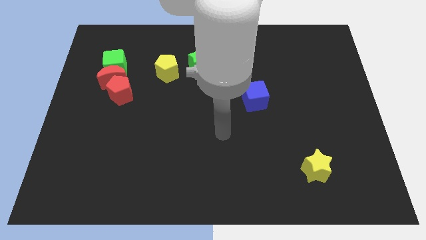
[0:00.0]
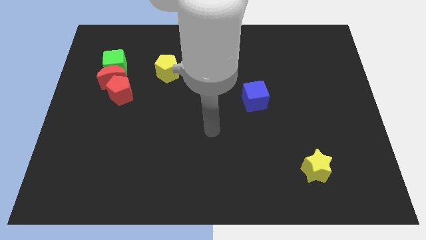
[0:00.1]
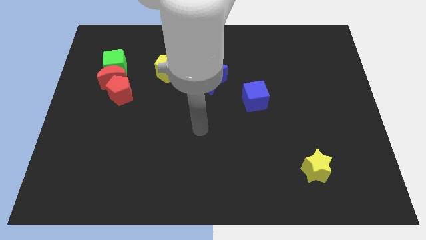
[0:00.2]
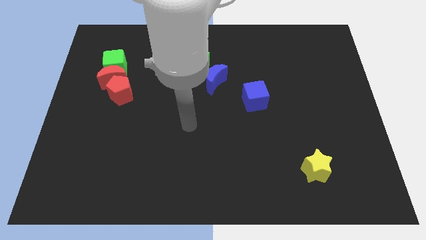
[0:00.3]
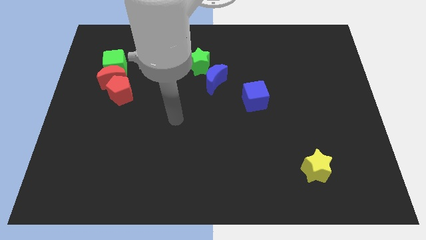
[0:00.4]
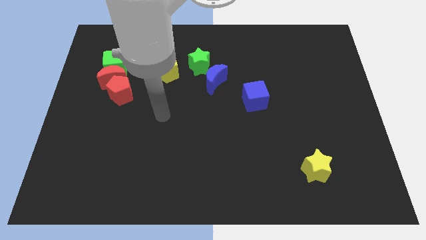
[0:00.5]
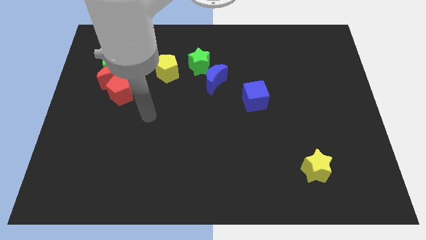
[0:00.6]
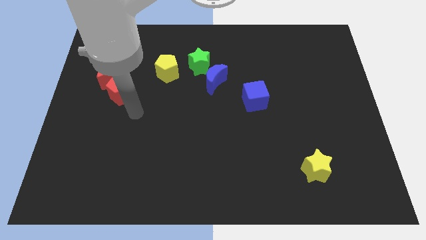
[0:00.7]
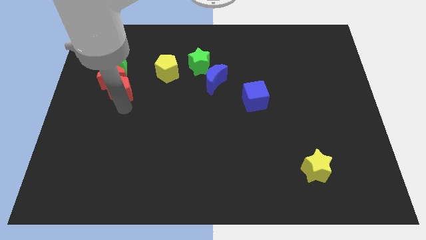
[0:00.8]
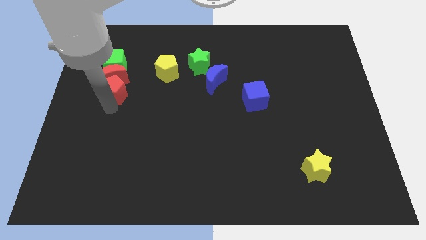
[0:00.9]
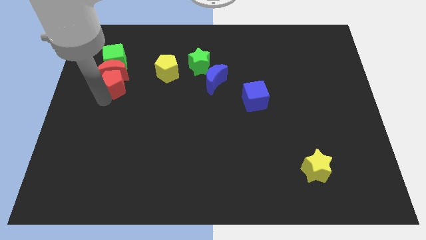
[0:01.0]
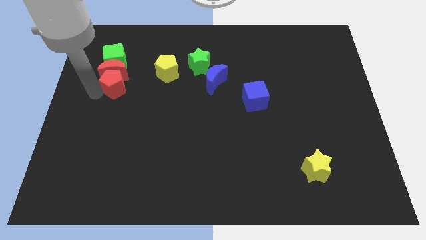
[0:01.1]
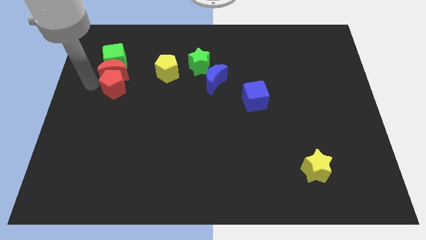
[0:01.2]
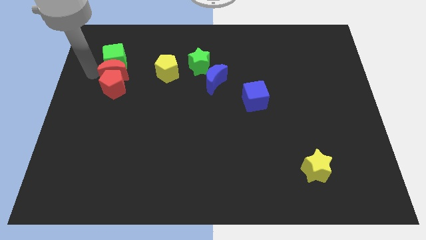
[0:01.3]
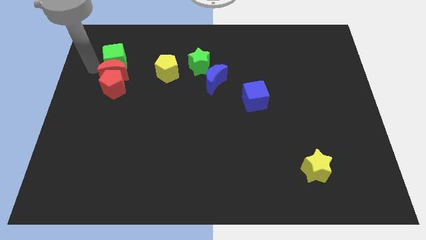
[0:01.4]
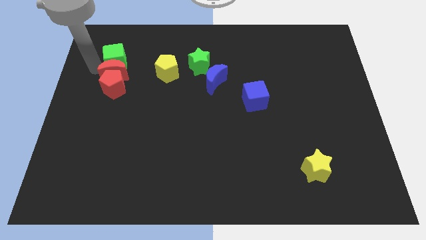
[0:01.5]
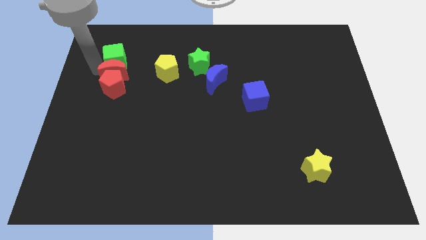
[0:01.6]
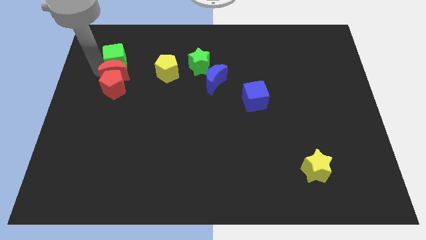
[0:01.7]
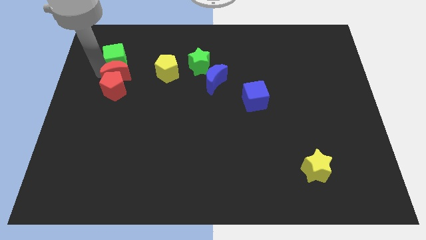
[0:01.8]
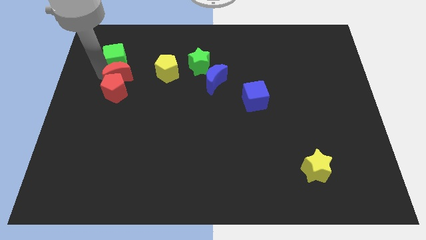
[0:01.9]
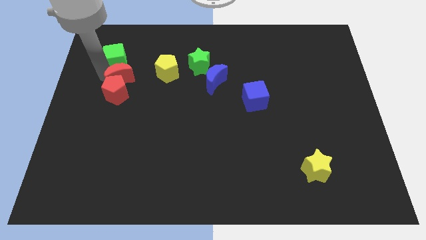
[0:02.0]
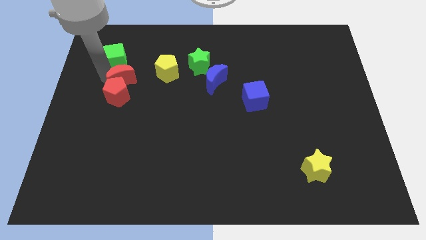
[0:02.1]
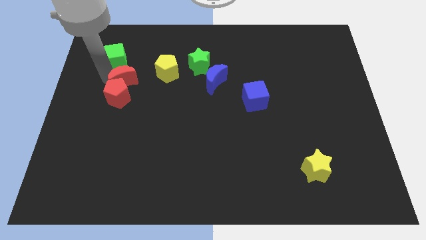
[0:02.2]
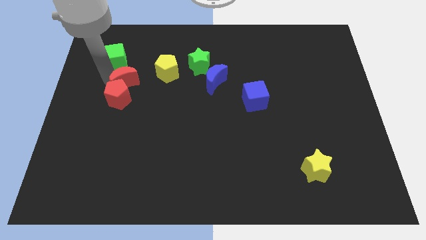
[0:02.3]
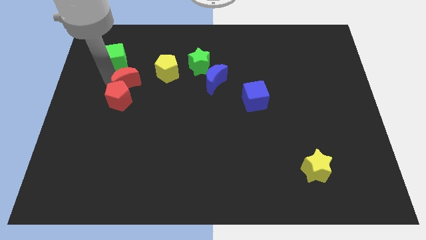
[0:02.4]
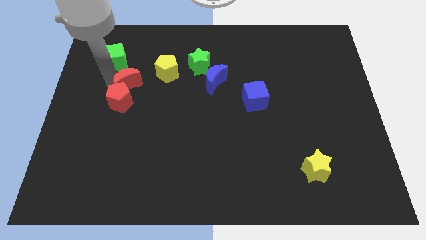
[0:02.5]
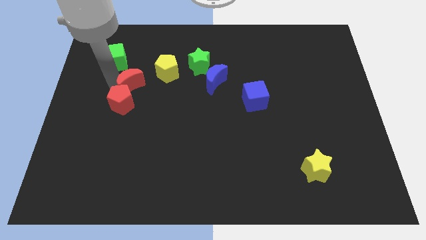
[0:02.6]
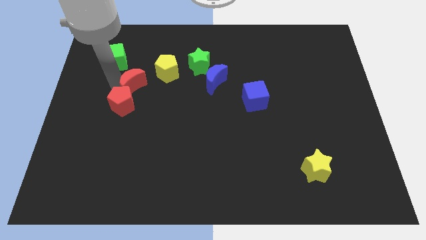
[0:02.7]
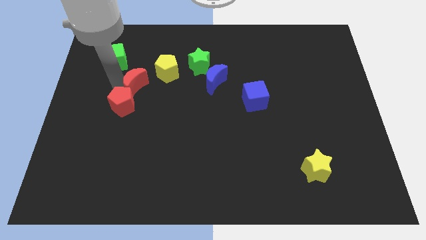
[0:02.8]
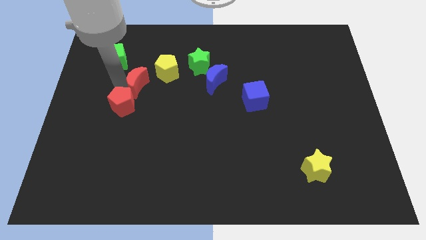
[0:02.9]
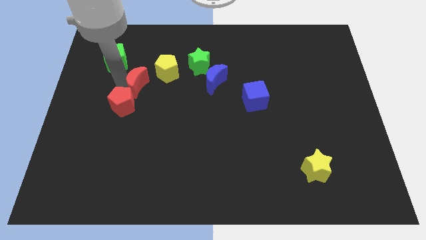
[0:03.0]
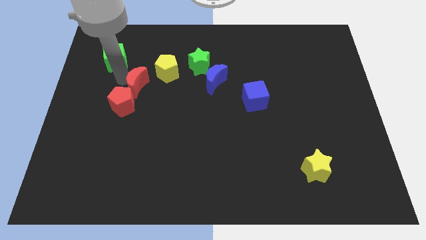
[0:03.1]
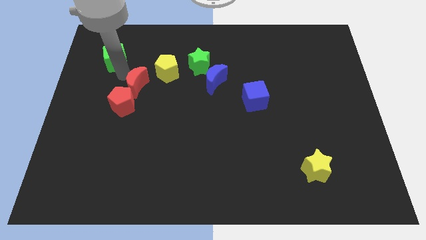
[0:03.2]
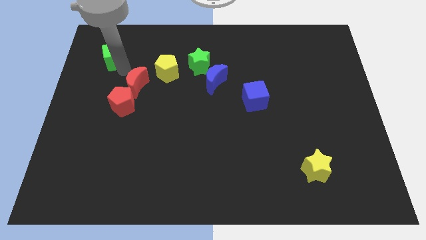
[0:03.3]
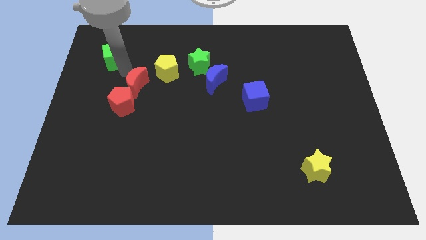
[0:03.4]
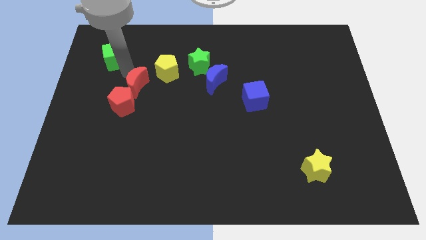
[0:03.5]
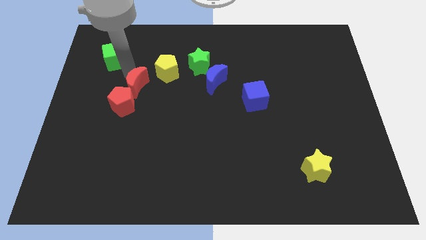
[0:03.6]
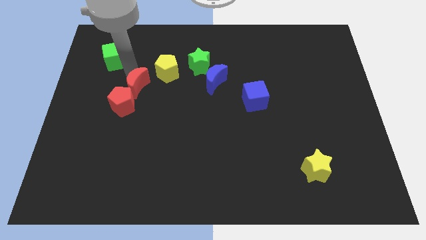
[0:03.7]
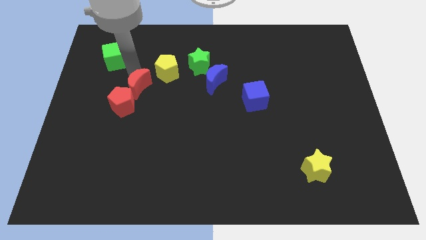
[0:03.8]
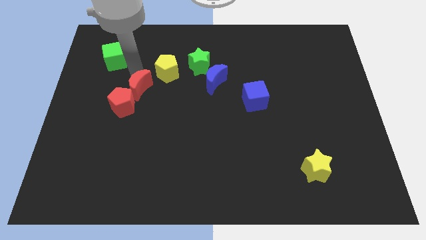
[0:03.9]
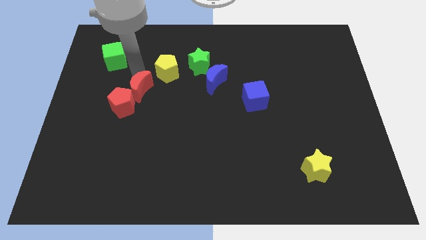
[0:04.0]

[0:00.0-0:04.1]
push the red moon diagonally down and right somewhat

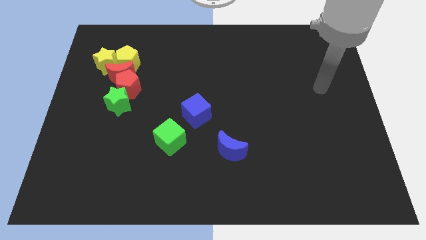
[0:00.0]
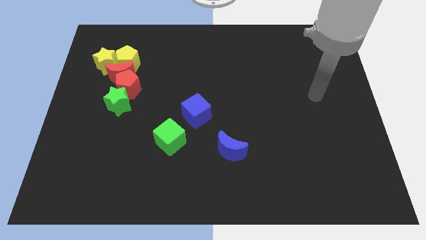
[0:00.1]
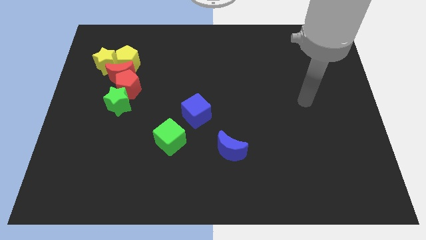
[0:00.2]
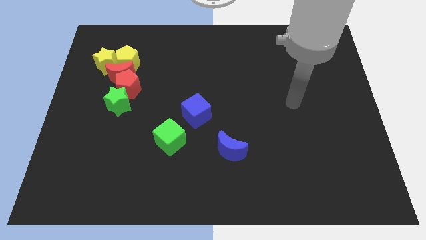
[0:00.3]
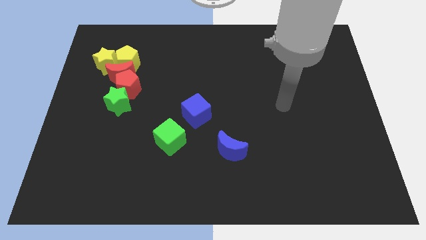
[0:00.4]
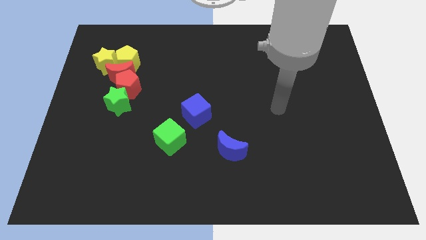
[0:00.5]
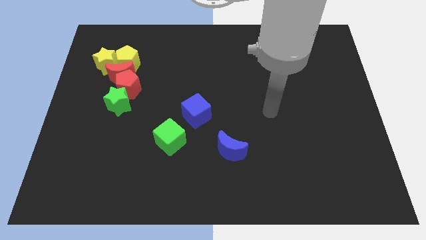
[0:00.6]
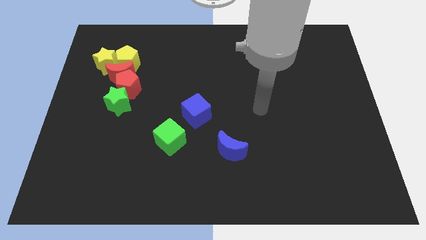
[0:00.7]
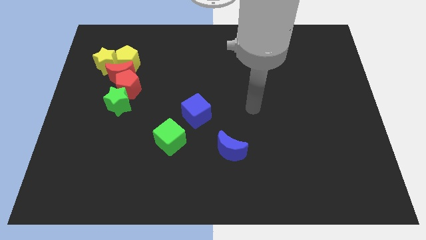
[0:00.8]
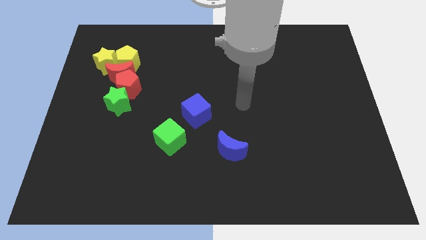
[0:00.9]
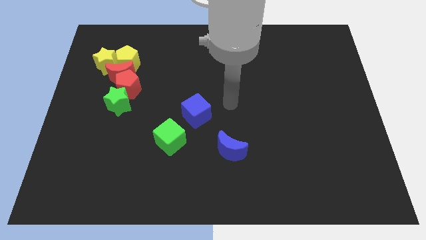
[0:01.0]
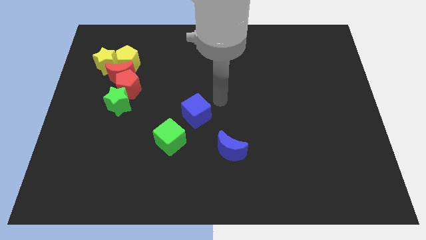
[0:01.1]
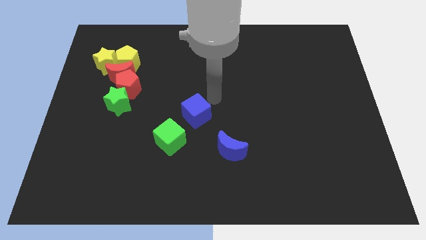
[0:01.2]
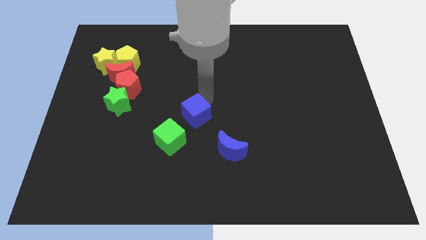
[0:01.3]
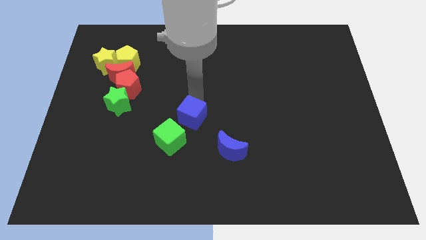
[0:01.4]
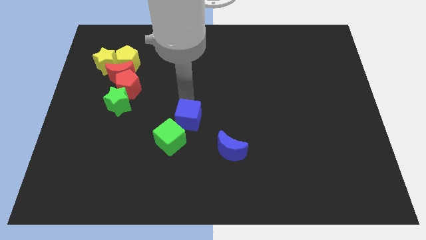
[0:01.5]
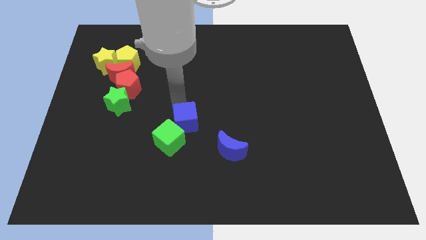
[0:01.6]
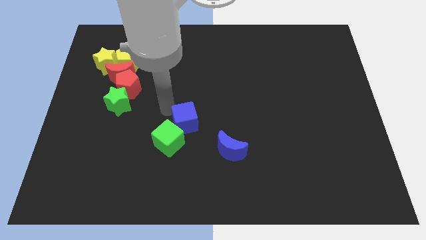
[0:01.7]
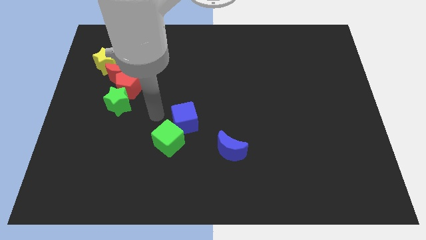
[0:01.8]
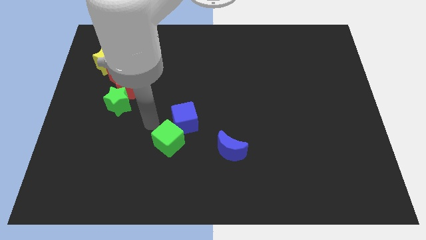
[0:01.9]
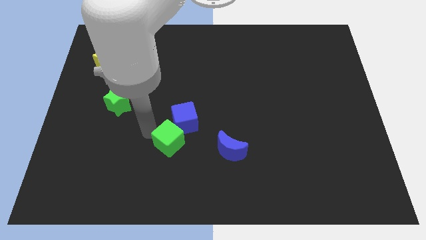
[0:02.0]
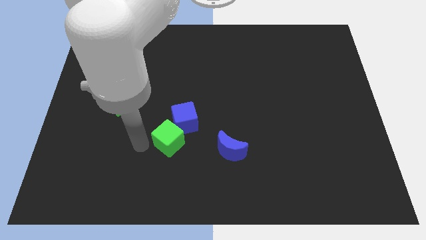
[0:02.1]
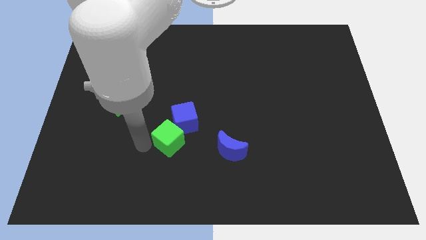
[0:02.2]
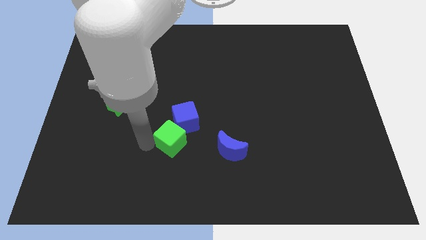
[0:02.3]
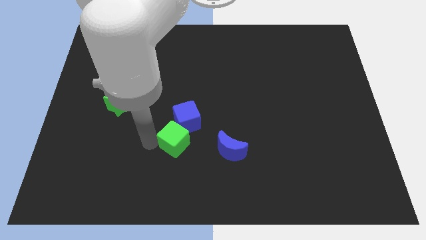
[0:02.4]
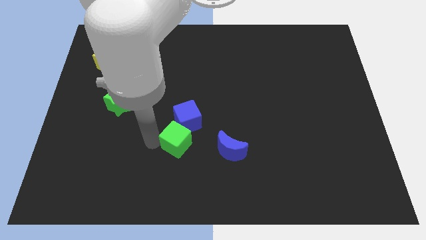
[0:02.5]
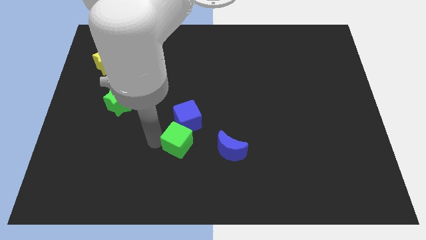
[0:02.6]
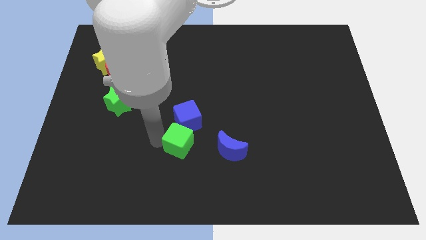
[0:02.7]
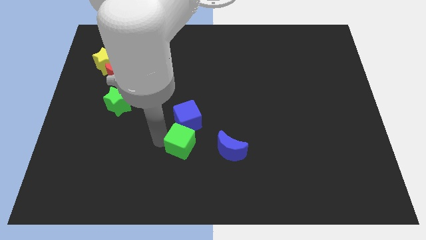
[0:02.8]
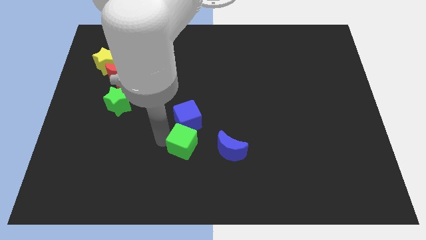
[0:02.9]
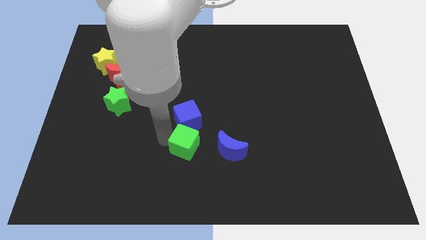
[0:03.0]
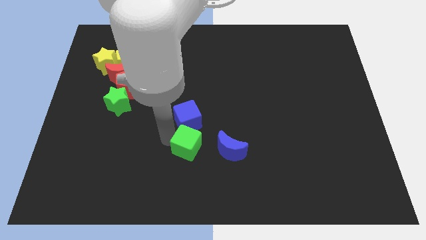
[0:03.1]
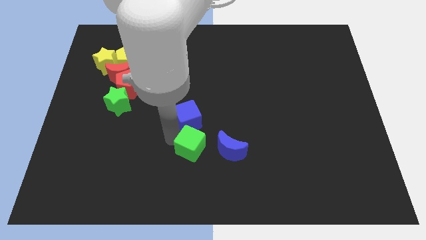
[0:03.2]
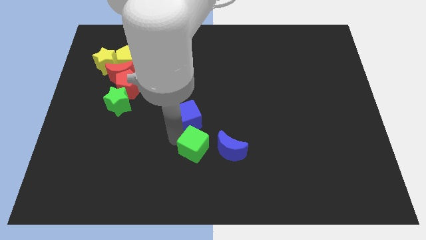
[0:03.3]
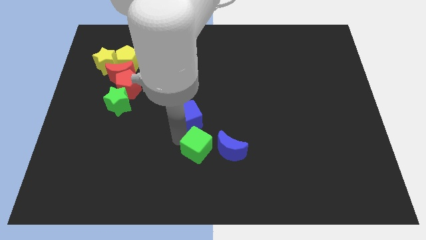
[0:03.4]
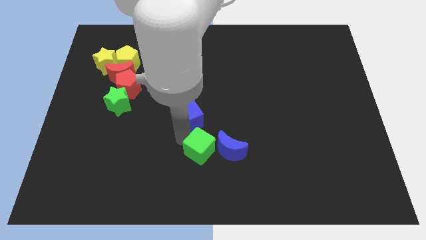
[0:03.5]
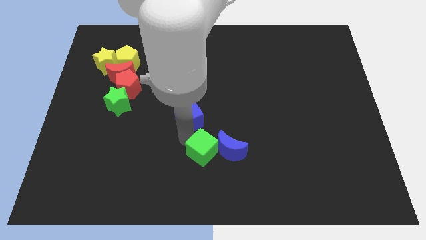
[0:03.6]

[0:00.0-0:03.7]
slightly push the green cube right
